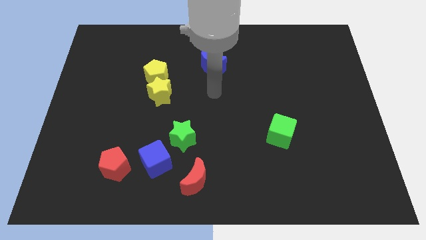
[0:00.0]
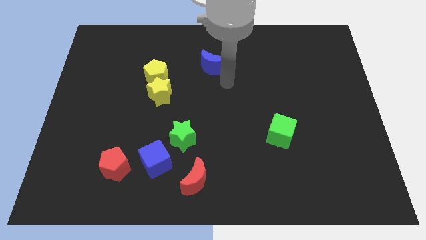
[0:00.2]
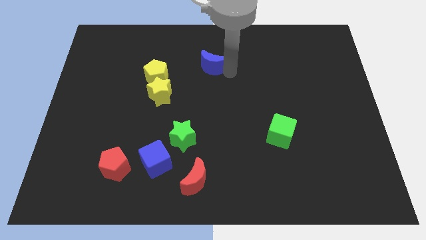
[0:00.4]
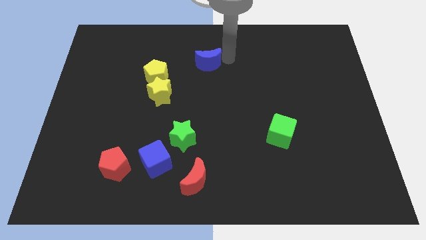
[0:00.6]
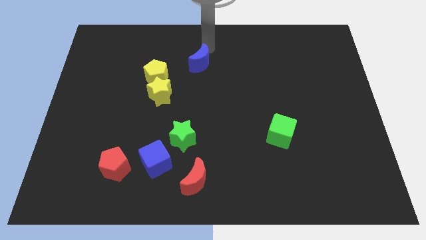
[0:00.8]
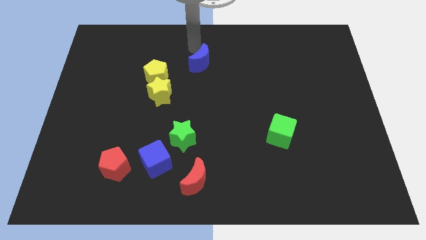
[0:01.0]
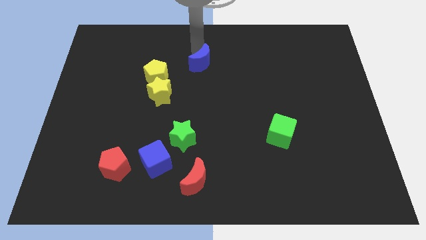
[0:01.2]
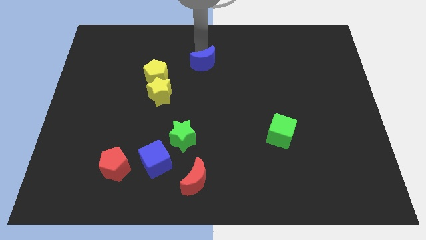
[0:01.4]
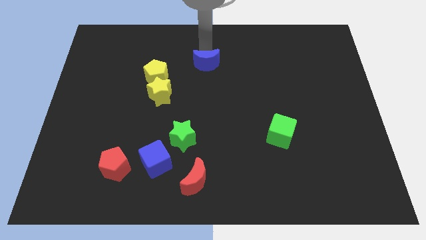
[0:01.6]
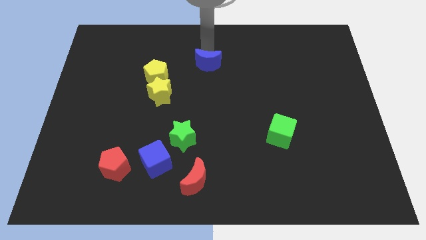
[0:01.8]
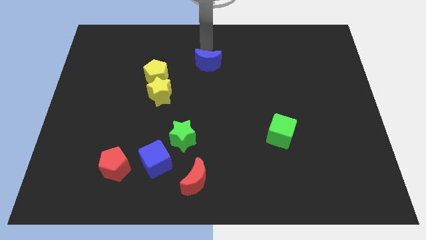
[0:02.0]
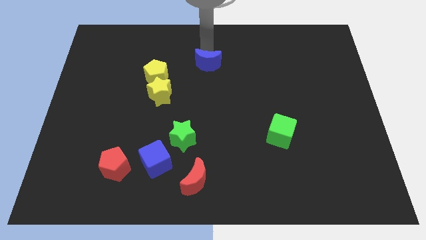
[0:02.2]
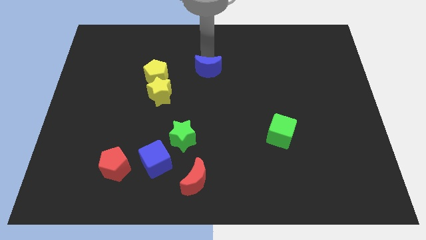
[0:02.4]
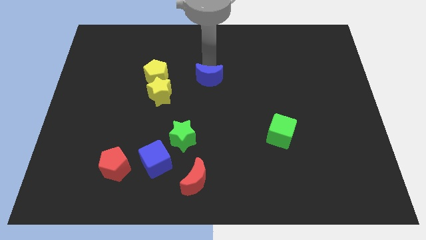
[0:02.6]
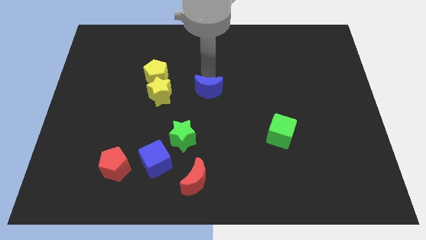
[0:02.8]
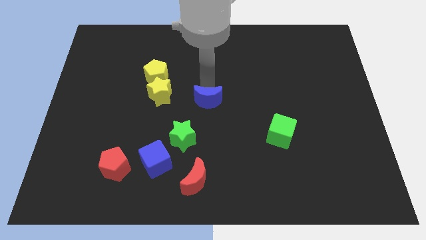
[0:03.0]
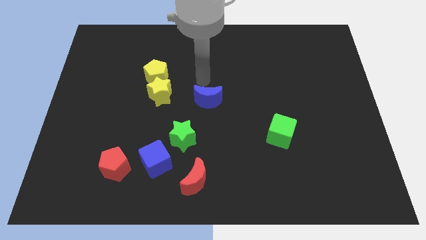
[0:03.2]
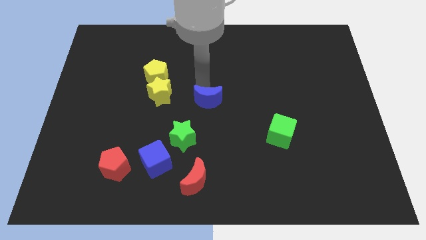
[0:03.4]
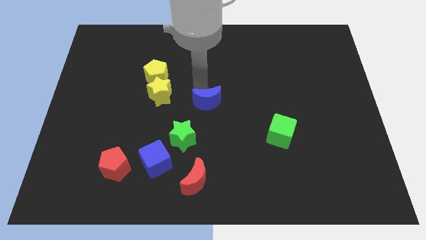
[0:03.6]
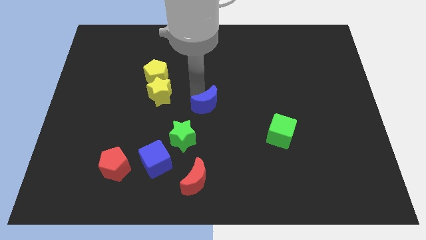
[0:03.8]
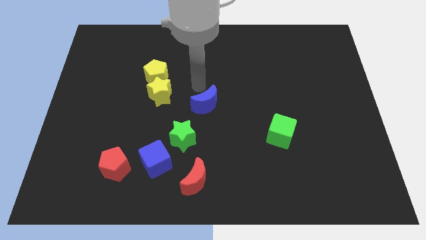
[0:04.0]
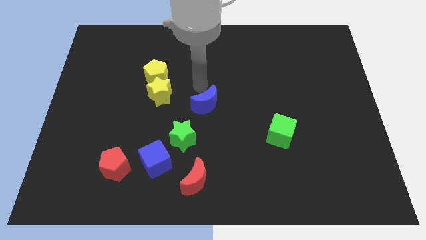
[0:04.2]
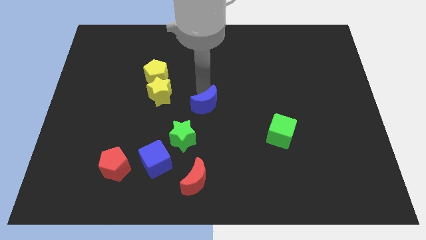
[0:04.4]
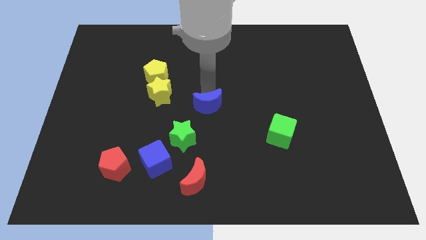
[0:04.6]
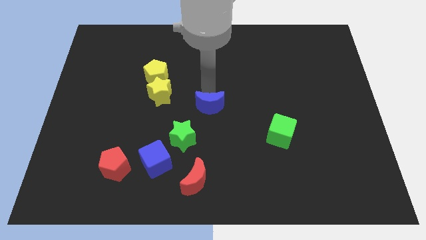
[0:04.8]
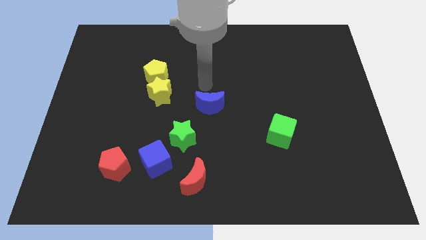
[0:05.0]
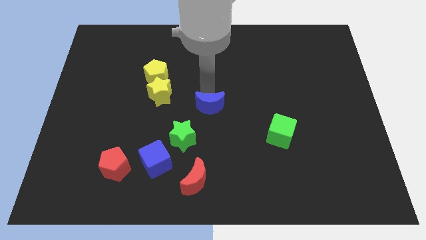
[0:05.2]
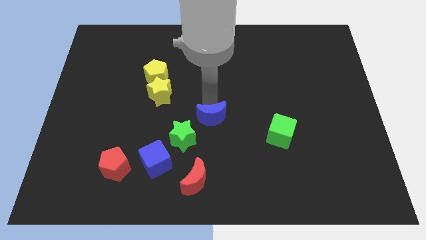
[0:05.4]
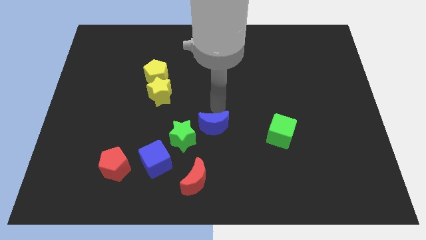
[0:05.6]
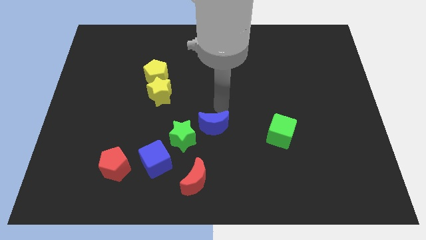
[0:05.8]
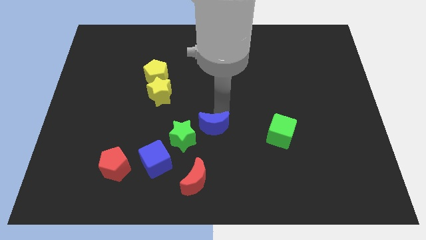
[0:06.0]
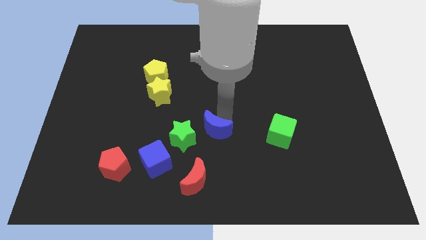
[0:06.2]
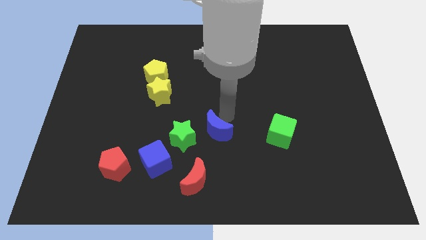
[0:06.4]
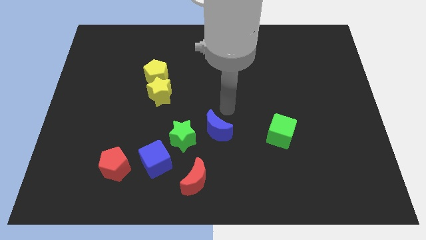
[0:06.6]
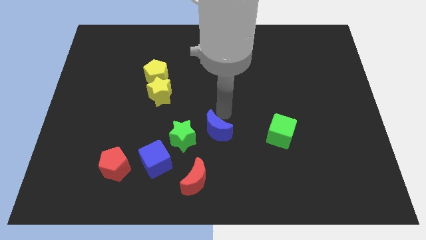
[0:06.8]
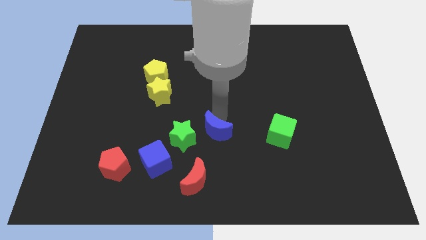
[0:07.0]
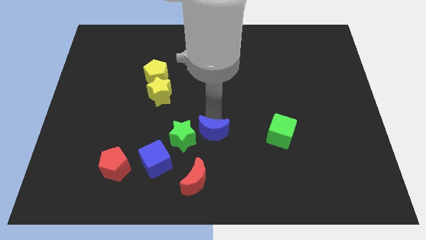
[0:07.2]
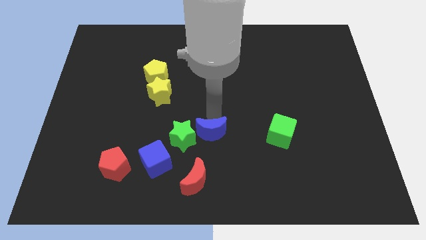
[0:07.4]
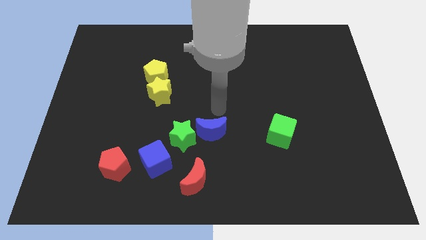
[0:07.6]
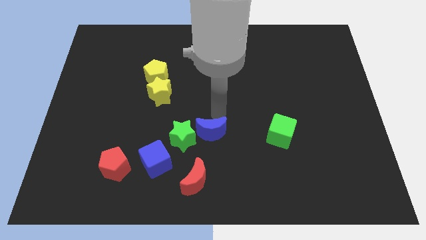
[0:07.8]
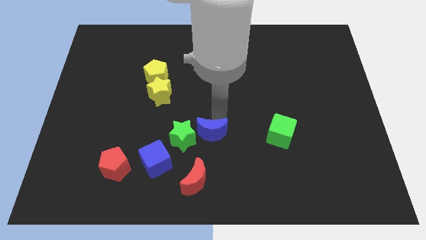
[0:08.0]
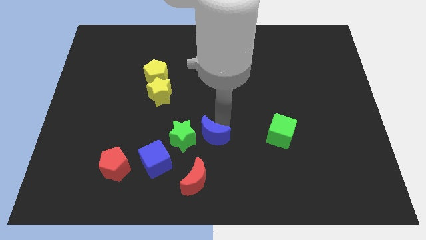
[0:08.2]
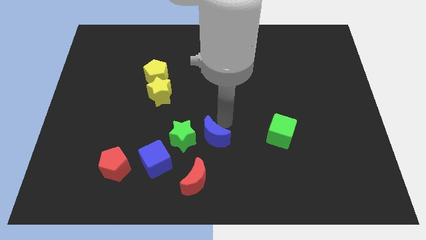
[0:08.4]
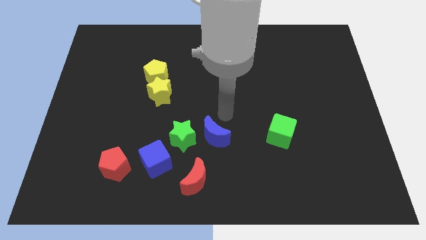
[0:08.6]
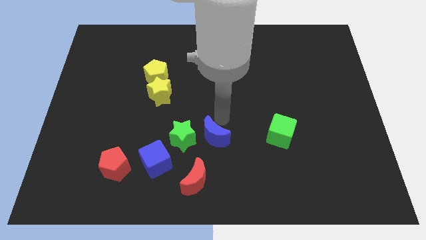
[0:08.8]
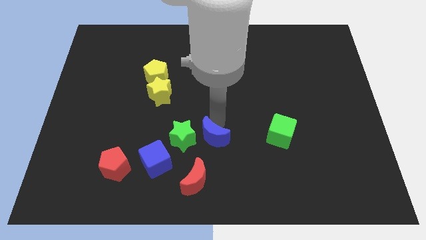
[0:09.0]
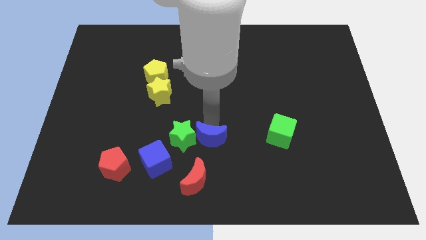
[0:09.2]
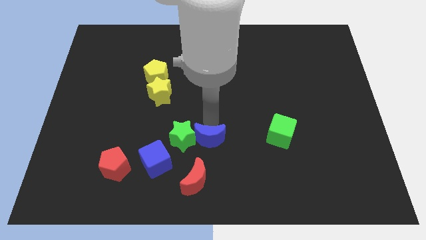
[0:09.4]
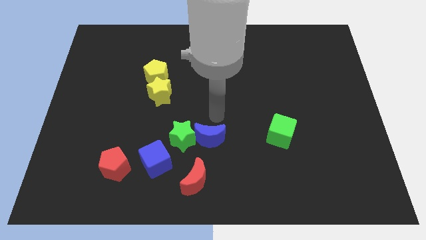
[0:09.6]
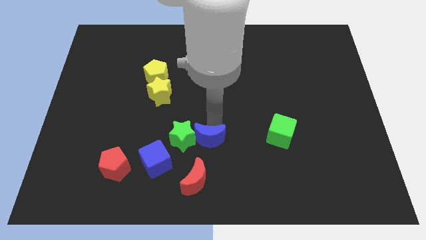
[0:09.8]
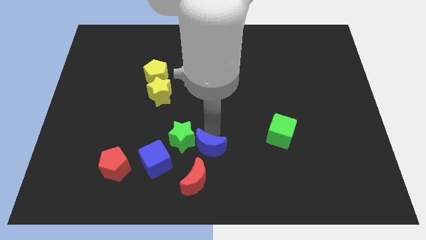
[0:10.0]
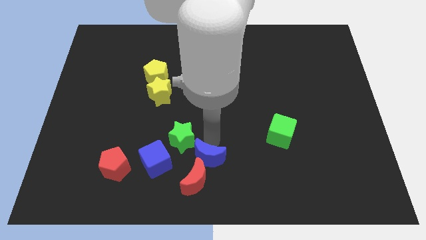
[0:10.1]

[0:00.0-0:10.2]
slide the blue moon to the red moon

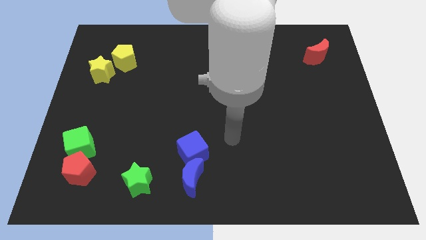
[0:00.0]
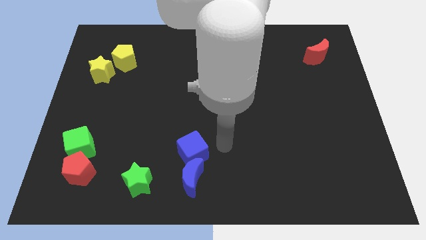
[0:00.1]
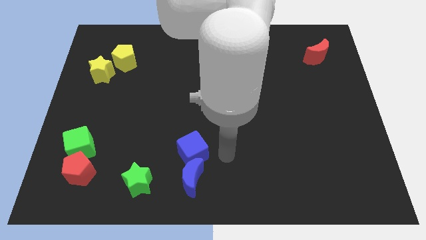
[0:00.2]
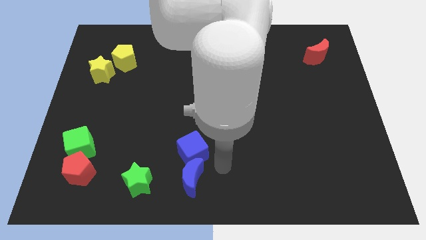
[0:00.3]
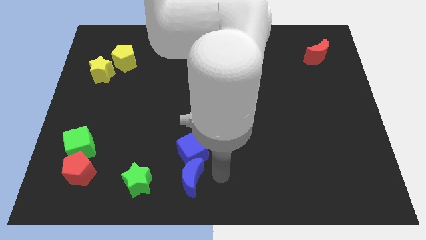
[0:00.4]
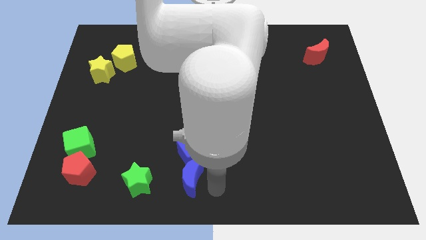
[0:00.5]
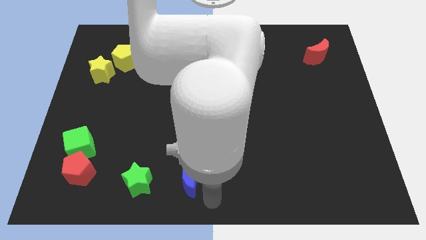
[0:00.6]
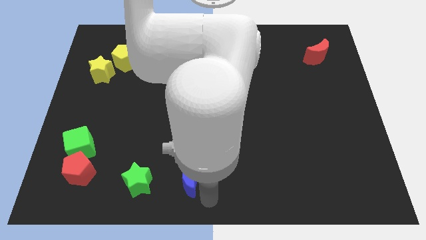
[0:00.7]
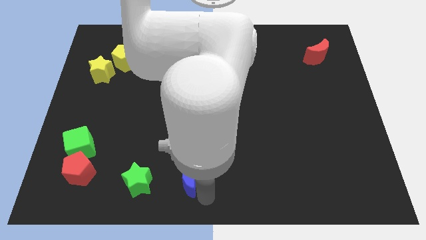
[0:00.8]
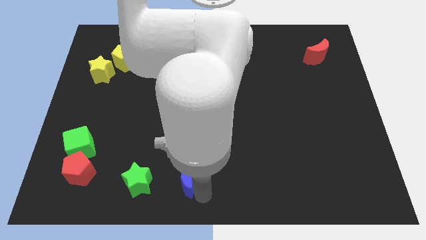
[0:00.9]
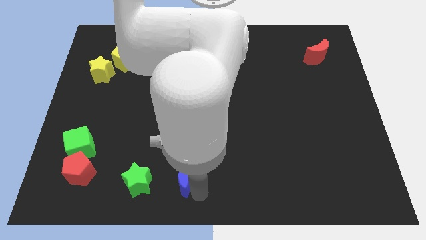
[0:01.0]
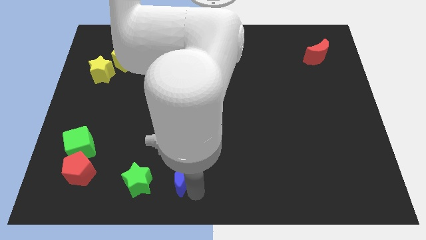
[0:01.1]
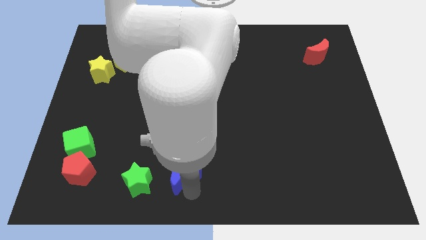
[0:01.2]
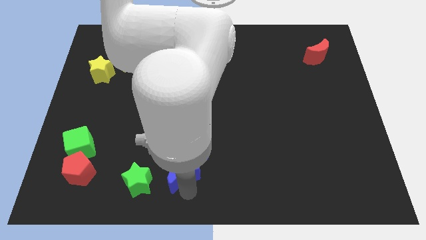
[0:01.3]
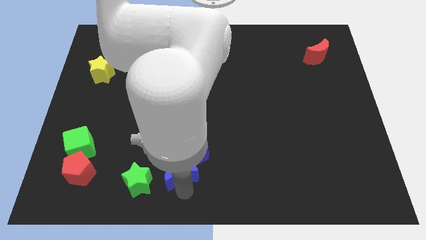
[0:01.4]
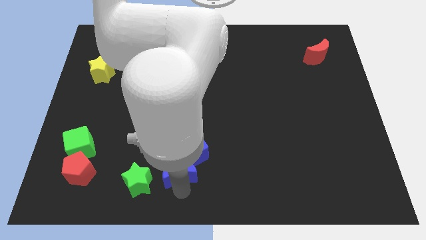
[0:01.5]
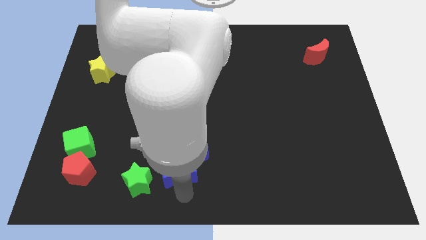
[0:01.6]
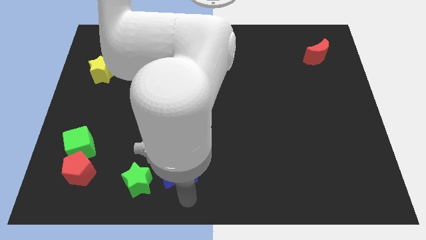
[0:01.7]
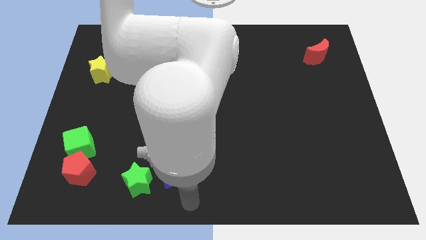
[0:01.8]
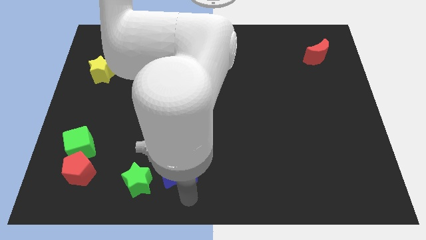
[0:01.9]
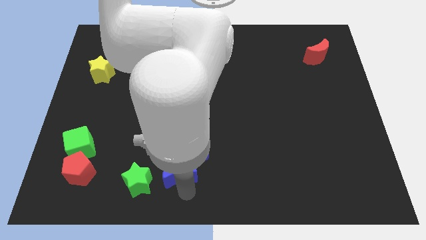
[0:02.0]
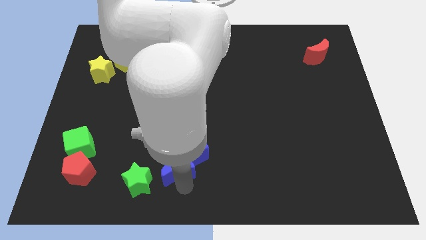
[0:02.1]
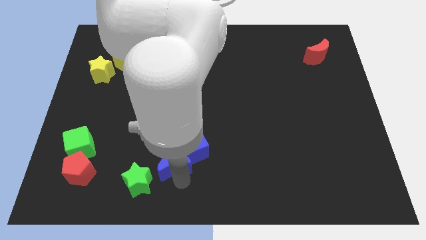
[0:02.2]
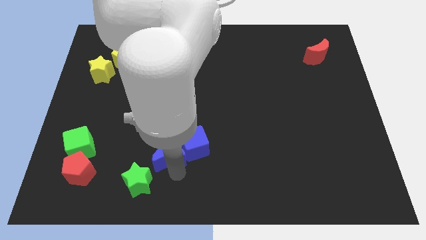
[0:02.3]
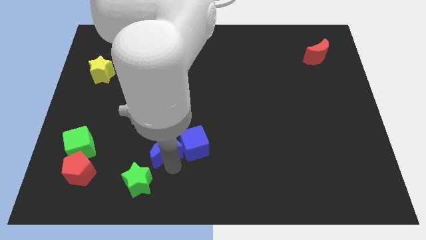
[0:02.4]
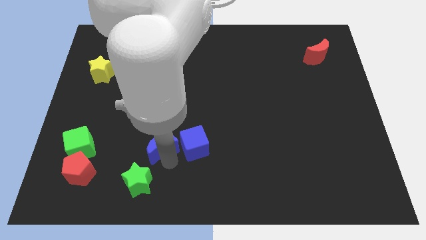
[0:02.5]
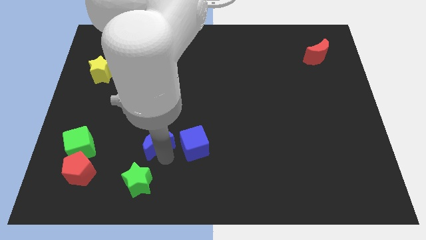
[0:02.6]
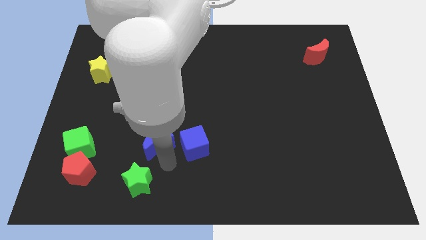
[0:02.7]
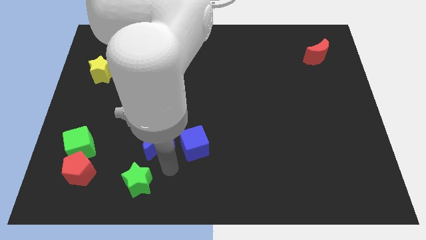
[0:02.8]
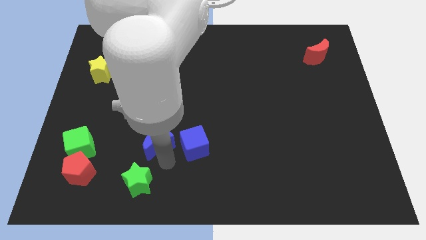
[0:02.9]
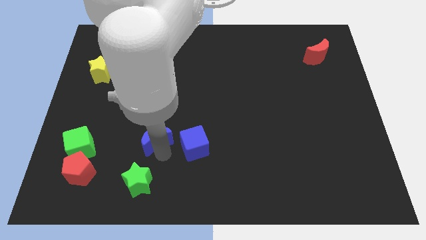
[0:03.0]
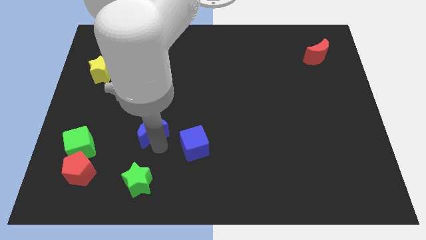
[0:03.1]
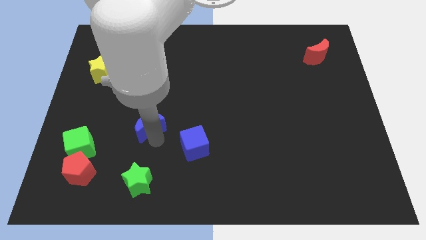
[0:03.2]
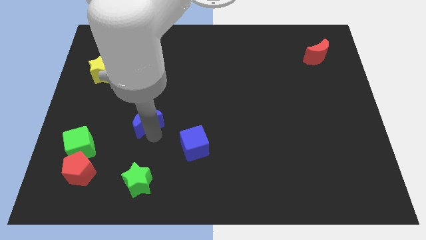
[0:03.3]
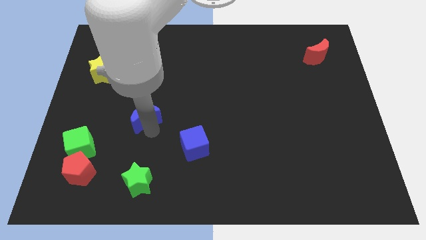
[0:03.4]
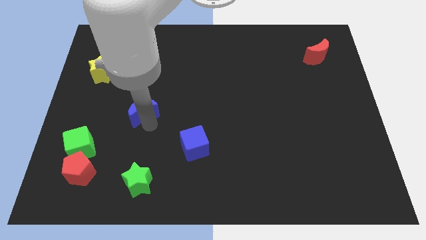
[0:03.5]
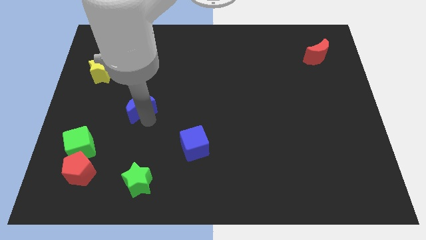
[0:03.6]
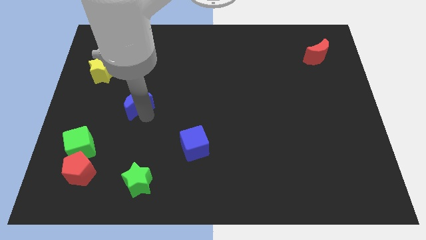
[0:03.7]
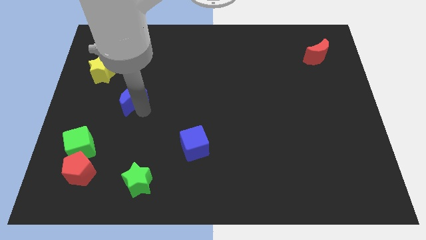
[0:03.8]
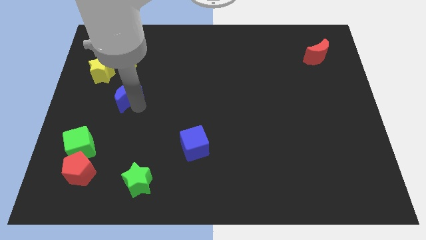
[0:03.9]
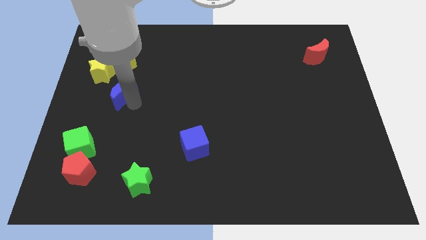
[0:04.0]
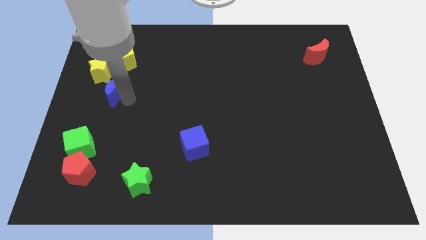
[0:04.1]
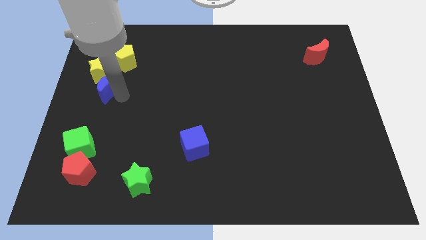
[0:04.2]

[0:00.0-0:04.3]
slide the blue moon next to the yellow star
